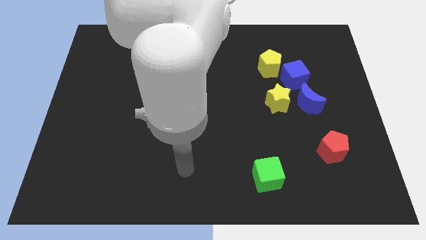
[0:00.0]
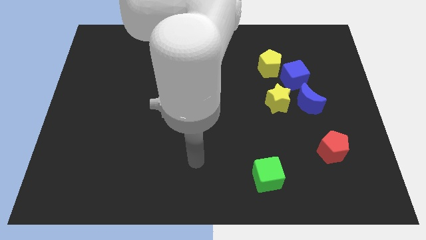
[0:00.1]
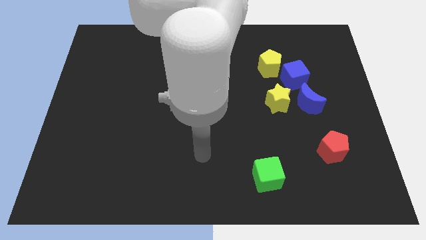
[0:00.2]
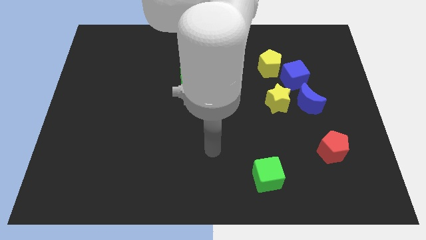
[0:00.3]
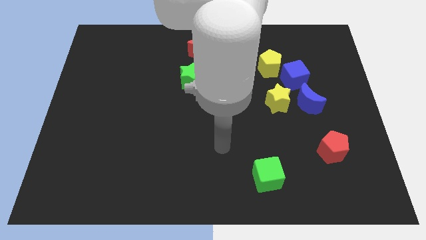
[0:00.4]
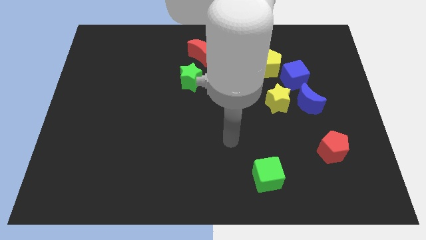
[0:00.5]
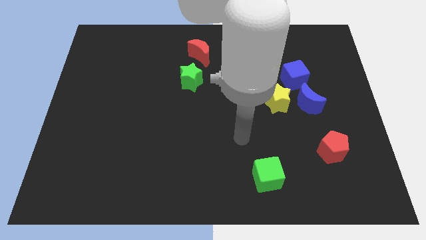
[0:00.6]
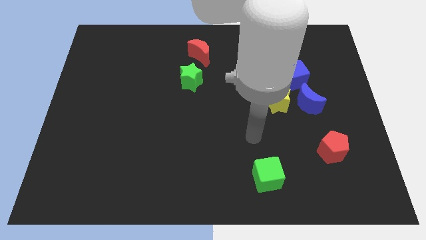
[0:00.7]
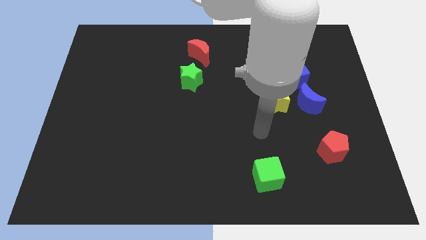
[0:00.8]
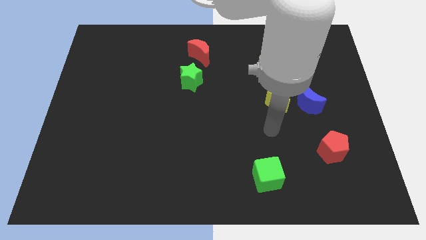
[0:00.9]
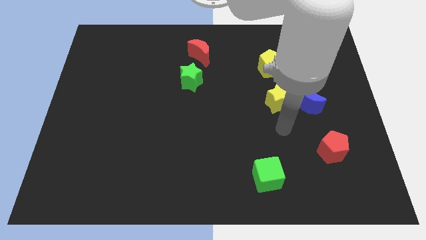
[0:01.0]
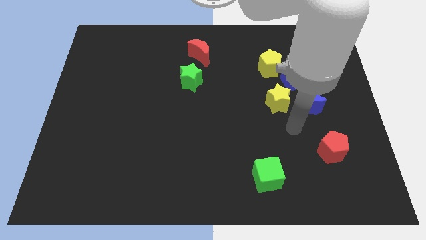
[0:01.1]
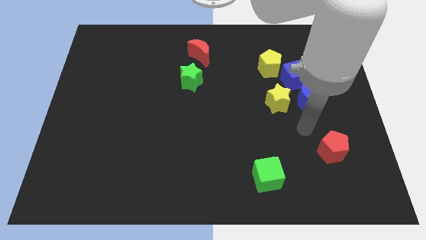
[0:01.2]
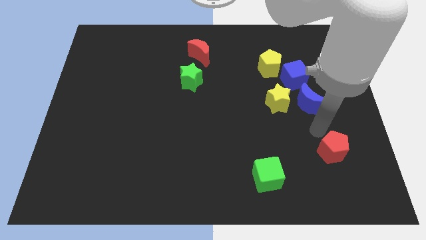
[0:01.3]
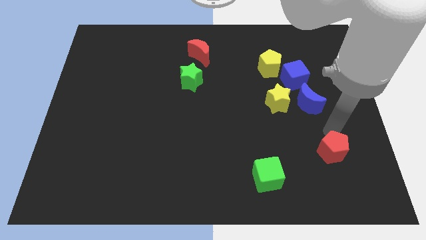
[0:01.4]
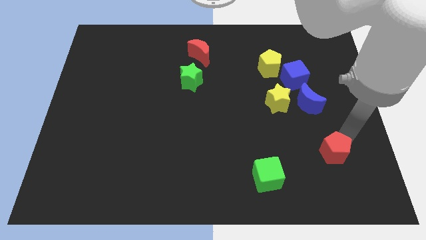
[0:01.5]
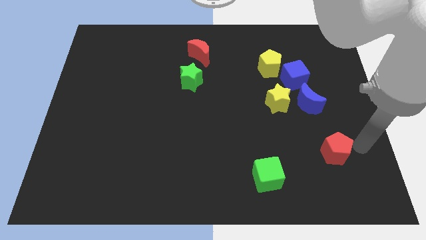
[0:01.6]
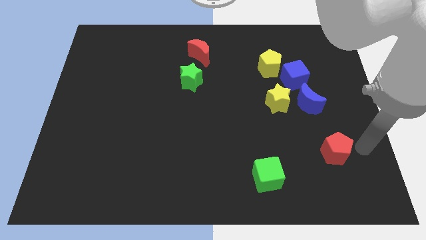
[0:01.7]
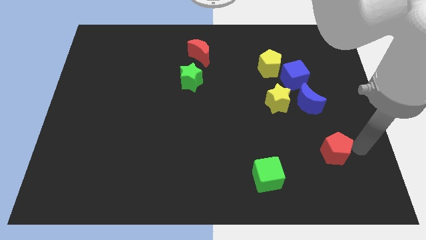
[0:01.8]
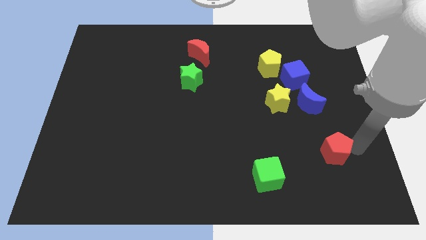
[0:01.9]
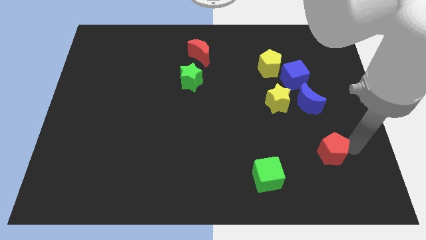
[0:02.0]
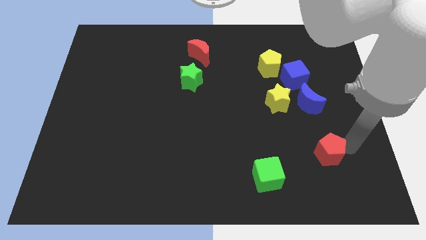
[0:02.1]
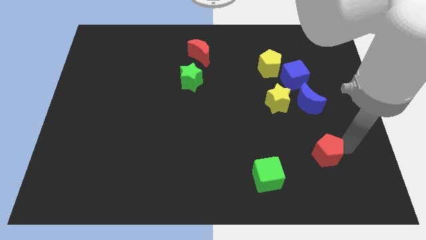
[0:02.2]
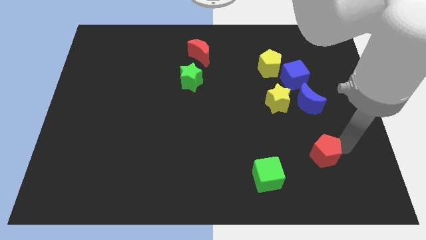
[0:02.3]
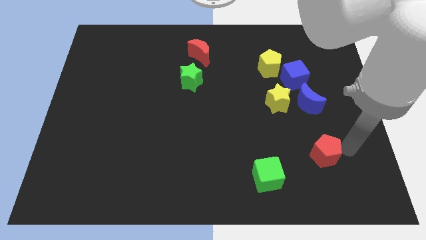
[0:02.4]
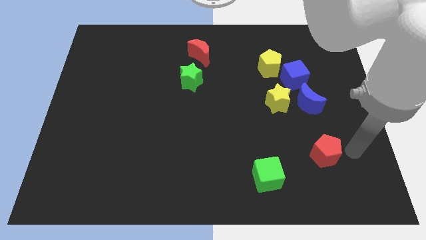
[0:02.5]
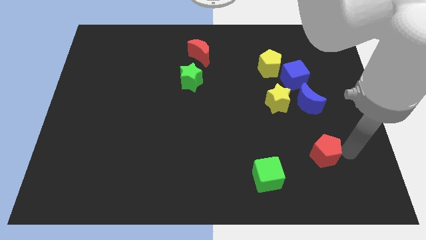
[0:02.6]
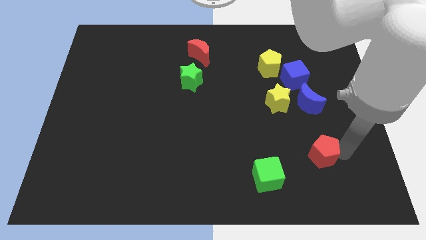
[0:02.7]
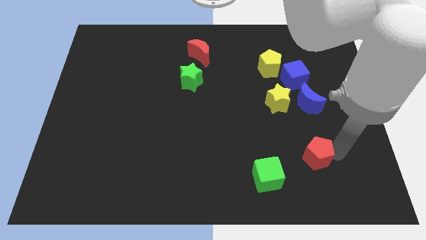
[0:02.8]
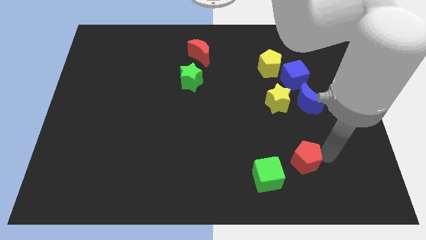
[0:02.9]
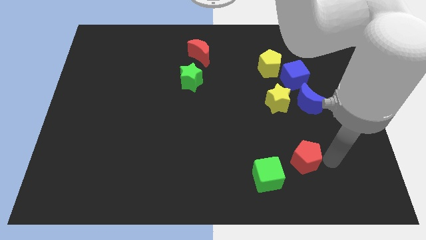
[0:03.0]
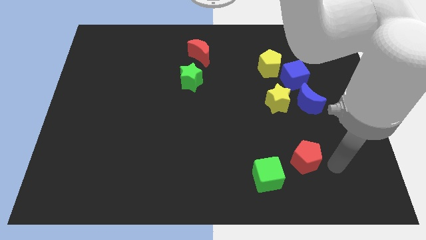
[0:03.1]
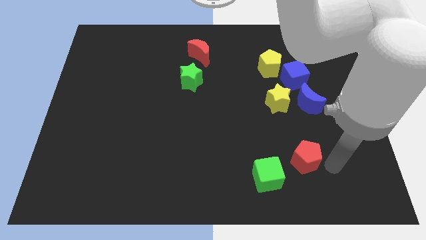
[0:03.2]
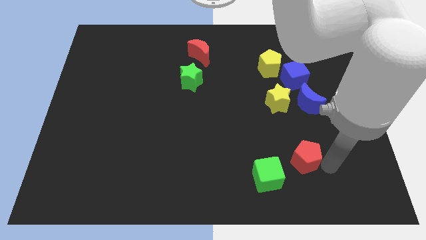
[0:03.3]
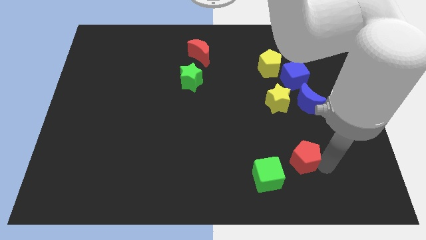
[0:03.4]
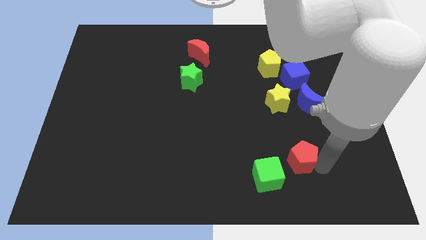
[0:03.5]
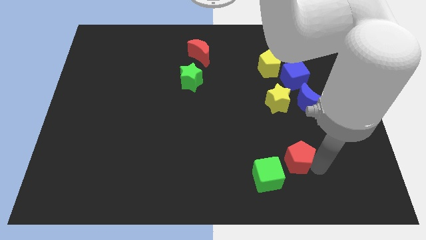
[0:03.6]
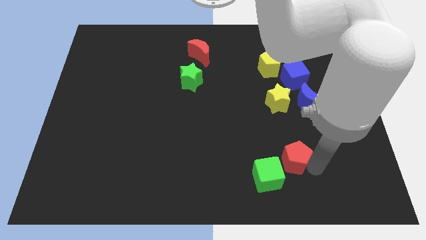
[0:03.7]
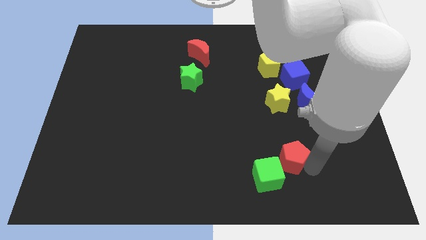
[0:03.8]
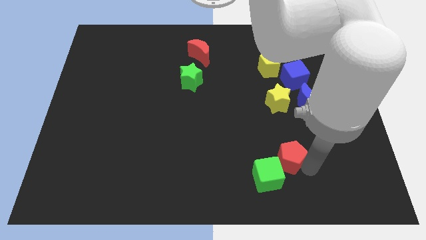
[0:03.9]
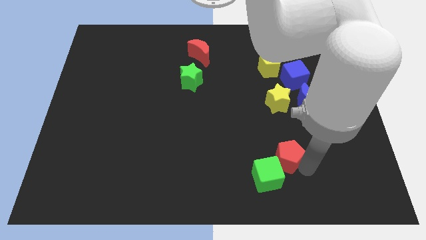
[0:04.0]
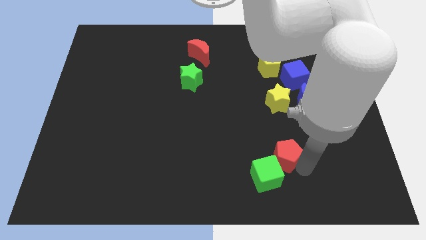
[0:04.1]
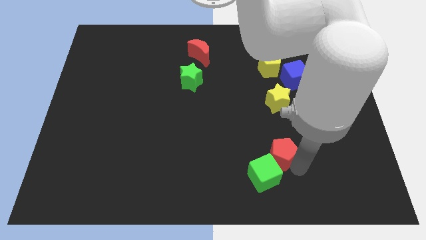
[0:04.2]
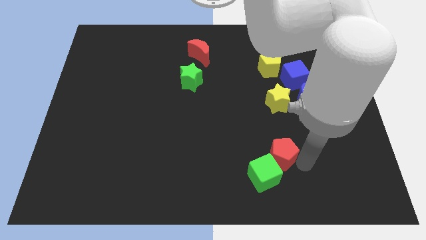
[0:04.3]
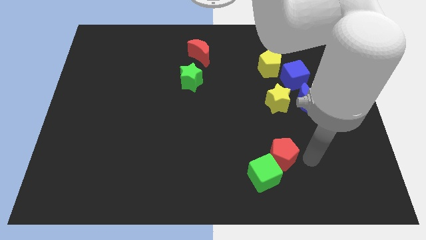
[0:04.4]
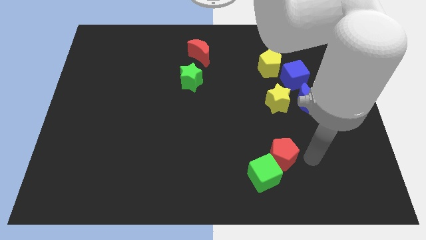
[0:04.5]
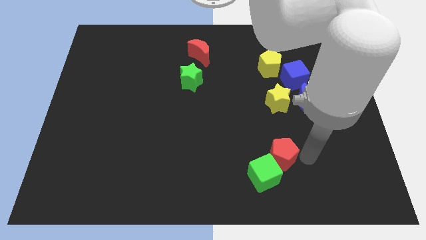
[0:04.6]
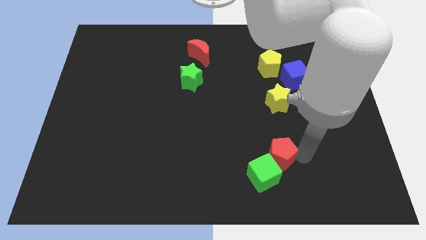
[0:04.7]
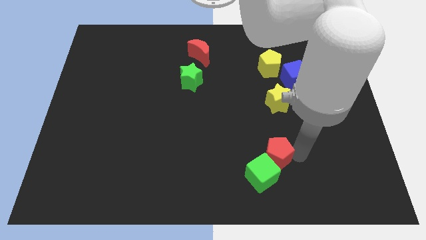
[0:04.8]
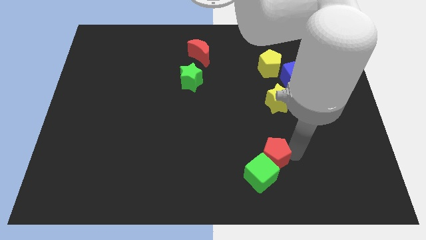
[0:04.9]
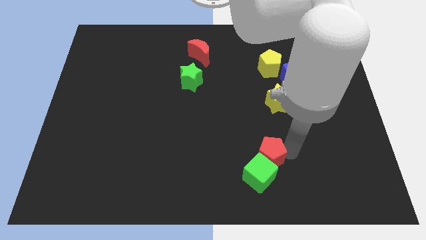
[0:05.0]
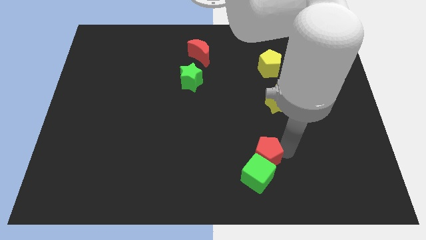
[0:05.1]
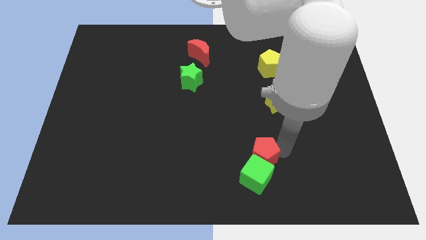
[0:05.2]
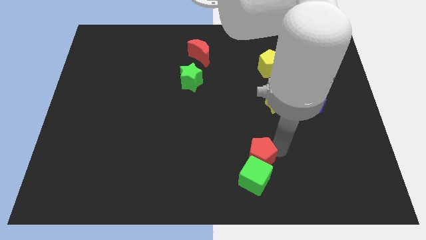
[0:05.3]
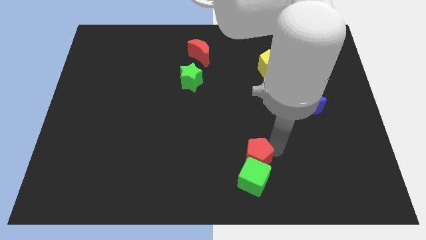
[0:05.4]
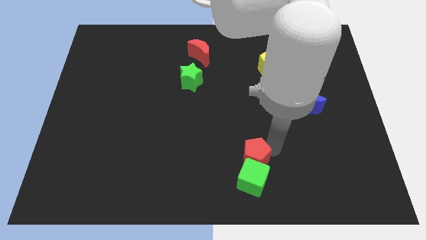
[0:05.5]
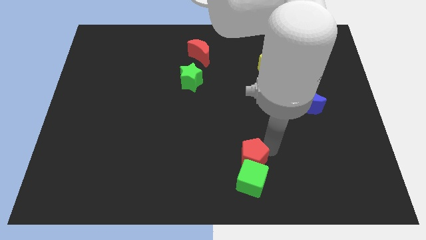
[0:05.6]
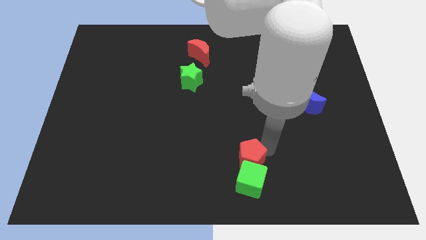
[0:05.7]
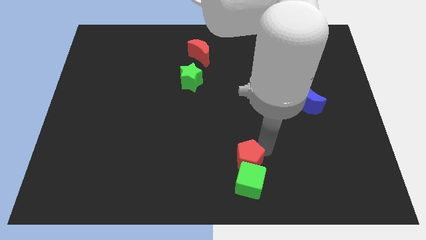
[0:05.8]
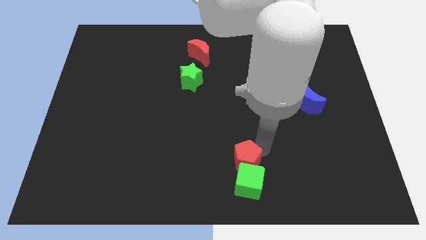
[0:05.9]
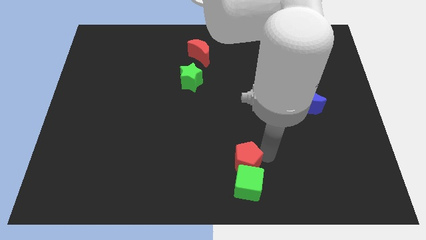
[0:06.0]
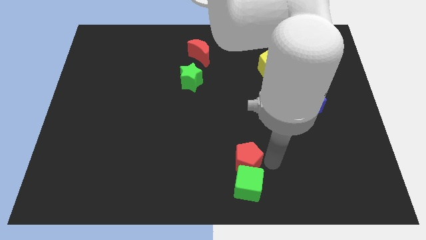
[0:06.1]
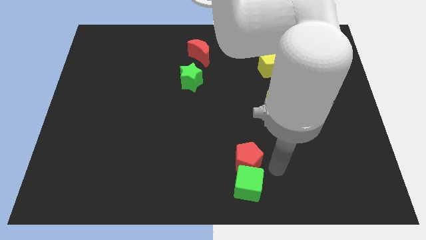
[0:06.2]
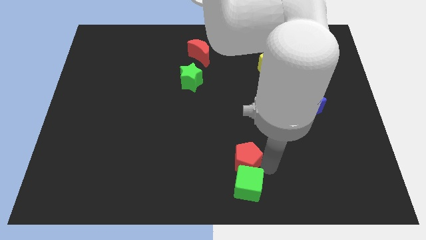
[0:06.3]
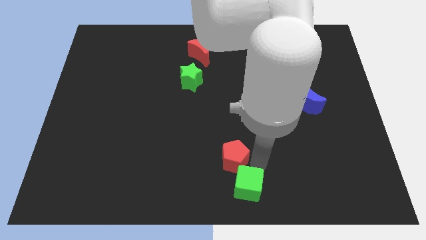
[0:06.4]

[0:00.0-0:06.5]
move the red pentagon left

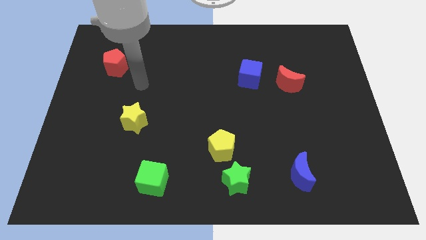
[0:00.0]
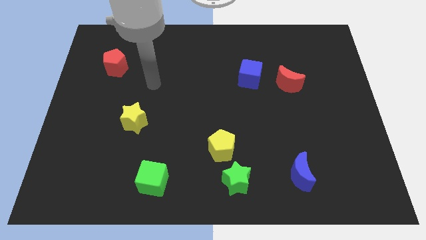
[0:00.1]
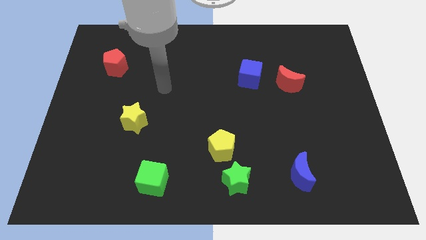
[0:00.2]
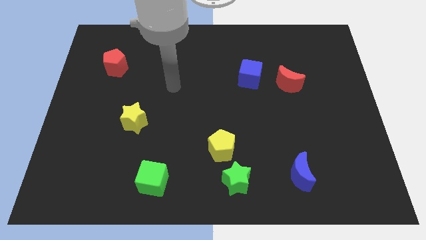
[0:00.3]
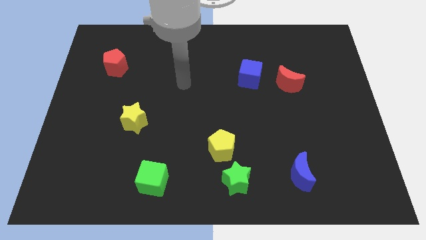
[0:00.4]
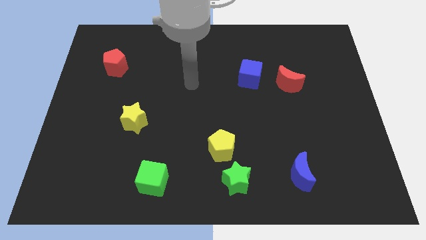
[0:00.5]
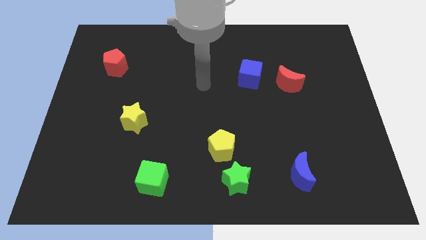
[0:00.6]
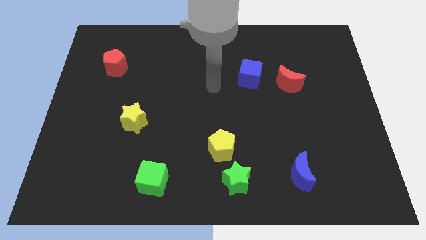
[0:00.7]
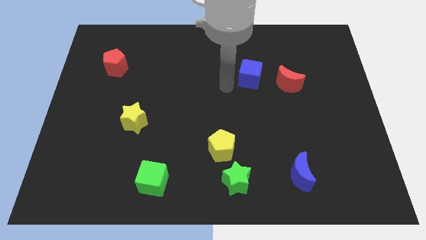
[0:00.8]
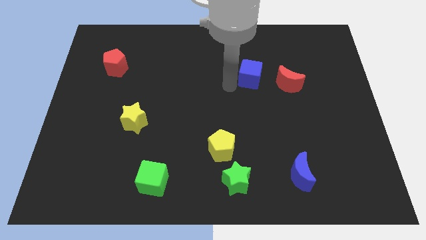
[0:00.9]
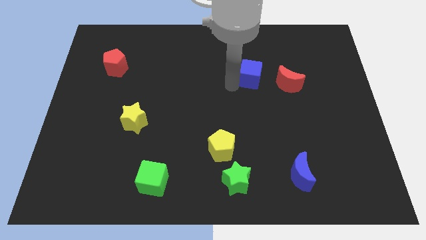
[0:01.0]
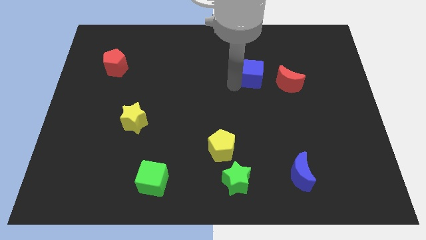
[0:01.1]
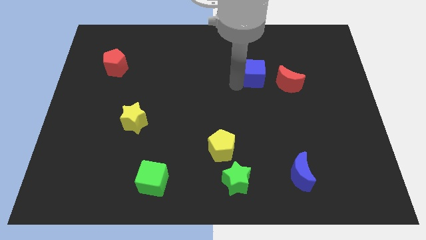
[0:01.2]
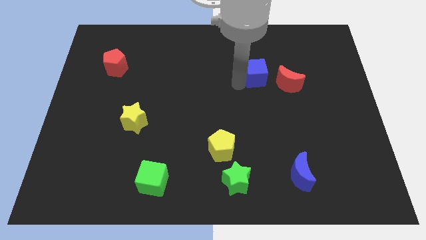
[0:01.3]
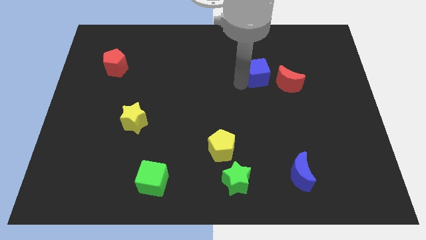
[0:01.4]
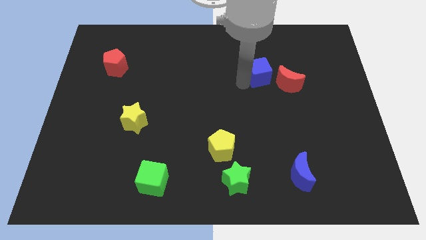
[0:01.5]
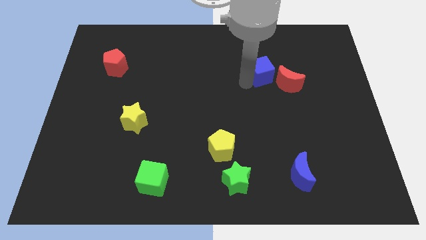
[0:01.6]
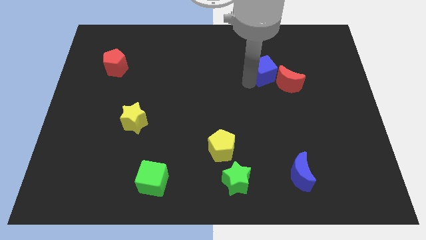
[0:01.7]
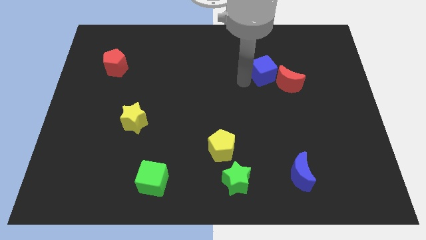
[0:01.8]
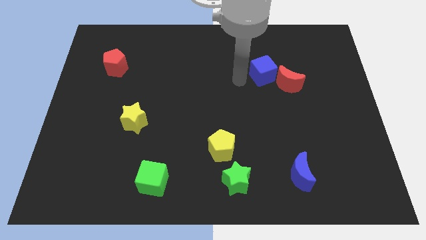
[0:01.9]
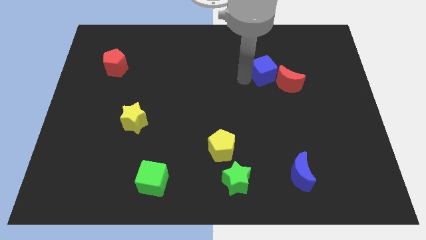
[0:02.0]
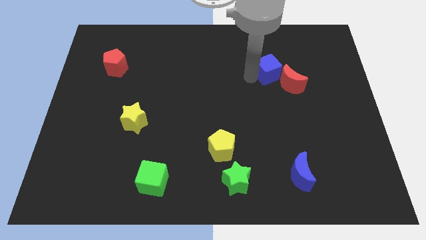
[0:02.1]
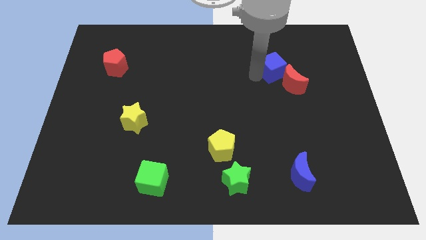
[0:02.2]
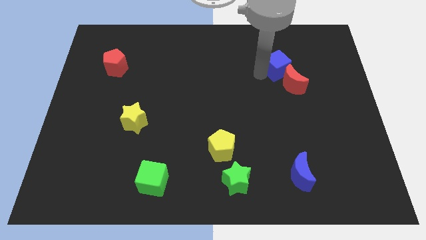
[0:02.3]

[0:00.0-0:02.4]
push the blue cube slightly right
